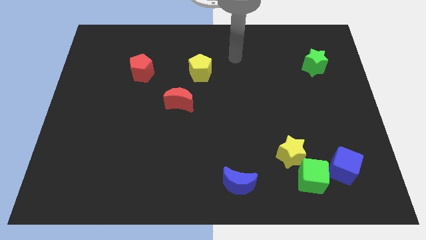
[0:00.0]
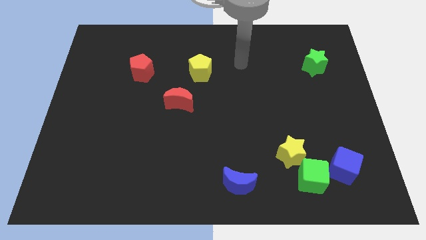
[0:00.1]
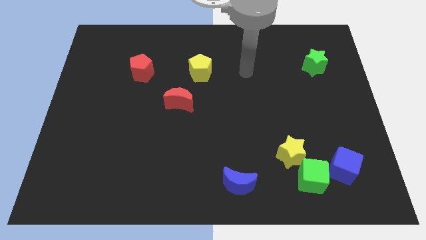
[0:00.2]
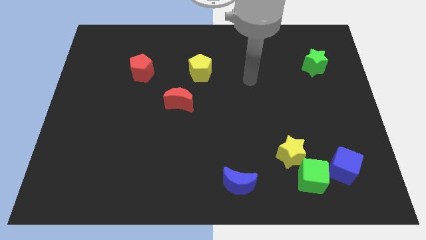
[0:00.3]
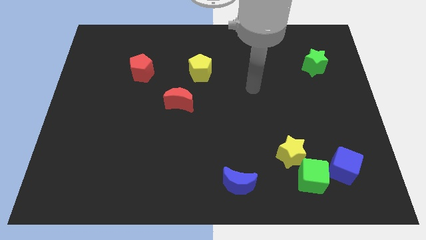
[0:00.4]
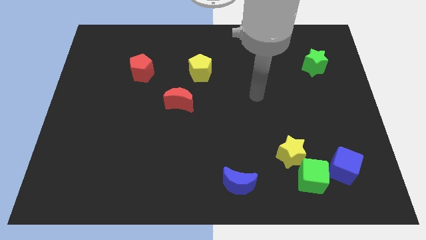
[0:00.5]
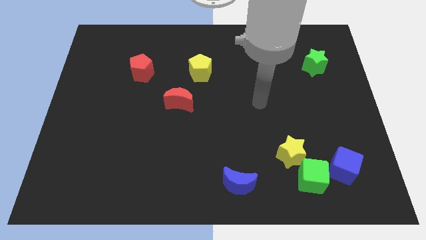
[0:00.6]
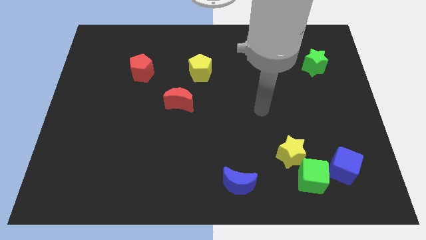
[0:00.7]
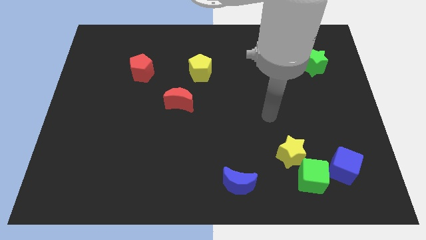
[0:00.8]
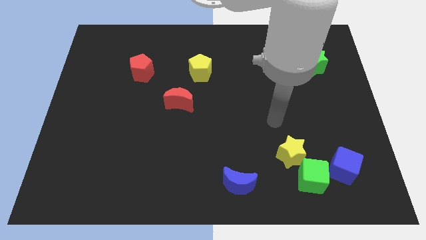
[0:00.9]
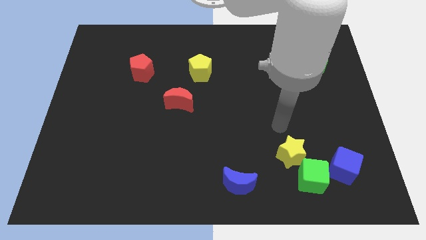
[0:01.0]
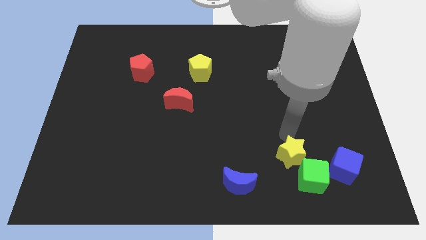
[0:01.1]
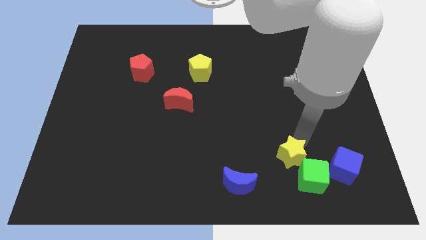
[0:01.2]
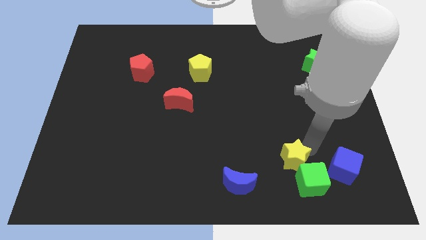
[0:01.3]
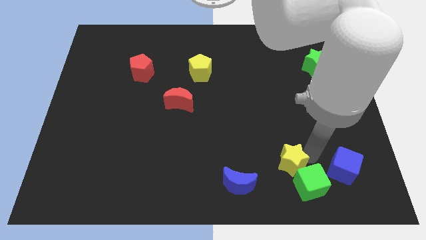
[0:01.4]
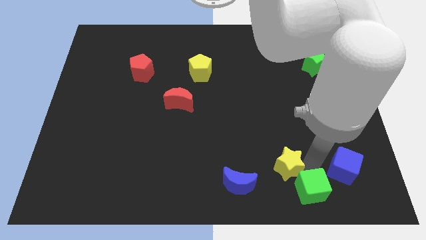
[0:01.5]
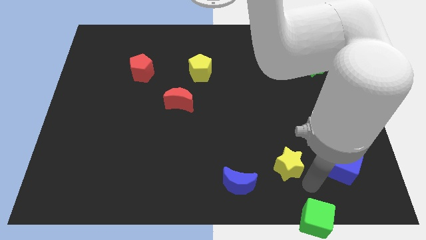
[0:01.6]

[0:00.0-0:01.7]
move the yellow star away from the green cube

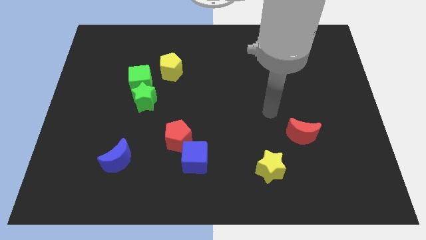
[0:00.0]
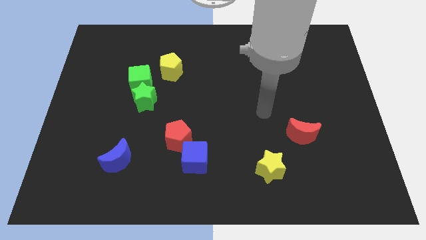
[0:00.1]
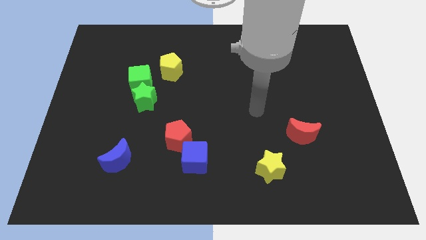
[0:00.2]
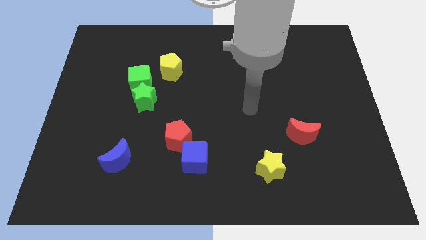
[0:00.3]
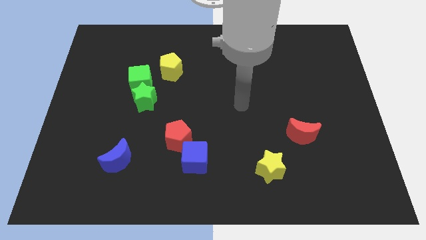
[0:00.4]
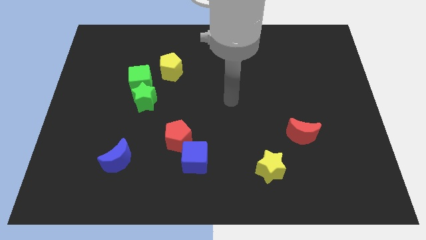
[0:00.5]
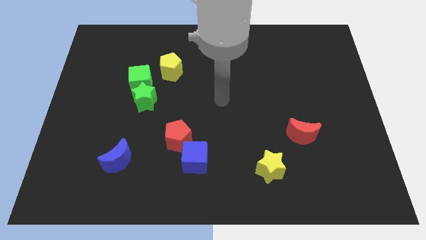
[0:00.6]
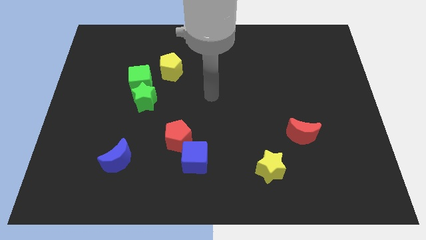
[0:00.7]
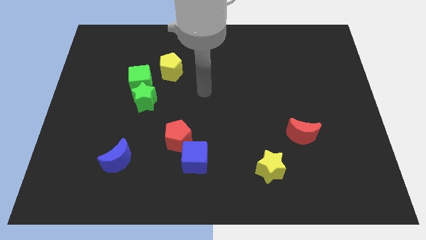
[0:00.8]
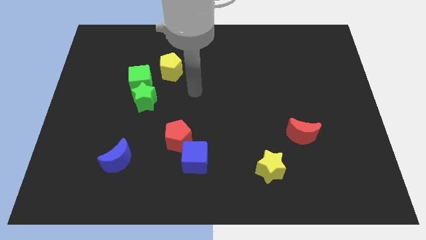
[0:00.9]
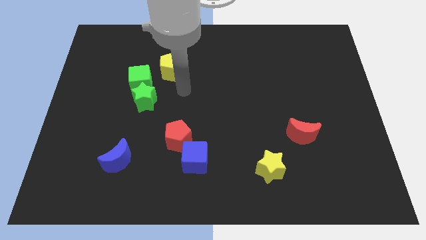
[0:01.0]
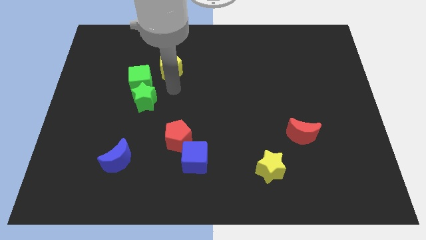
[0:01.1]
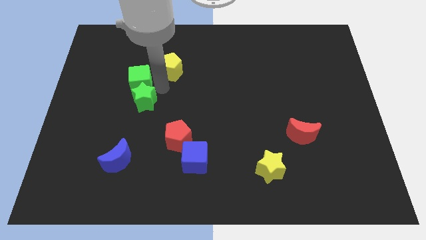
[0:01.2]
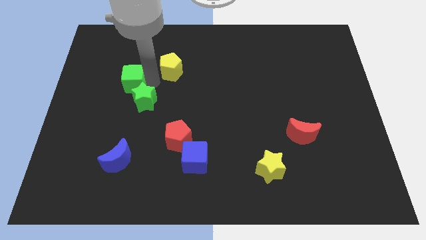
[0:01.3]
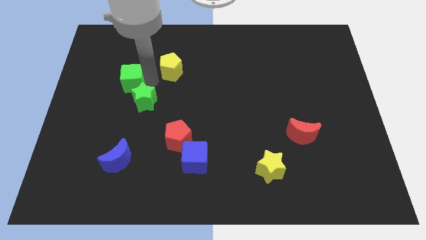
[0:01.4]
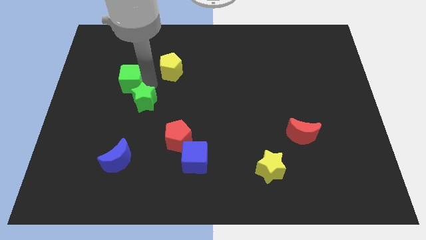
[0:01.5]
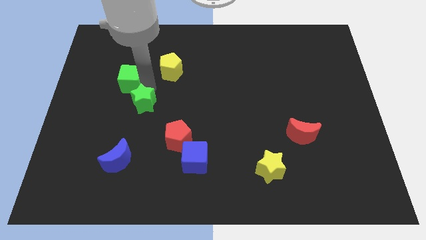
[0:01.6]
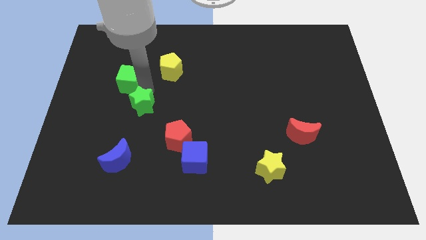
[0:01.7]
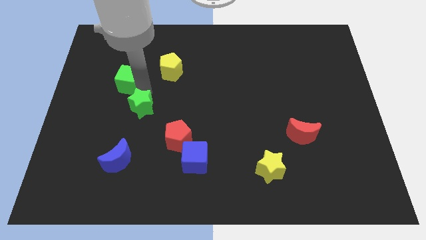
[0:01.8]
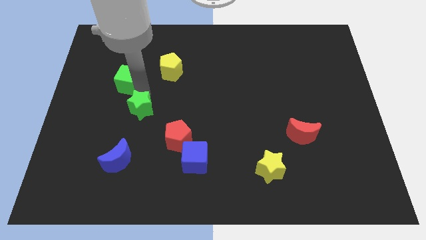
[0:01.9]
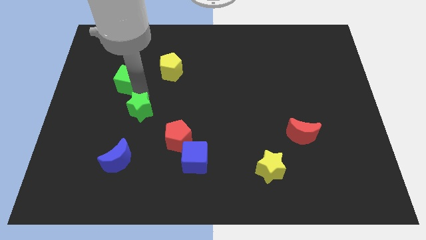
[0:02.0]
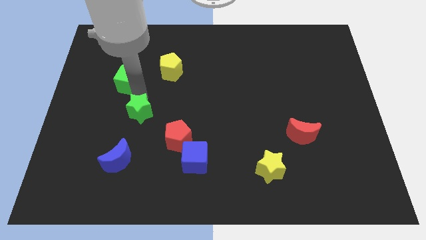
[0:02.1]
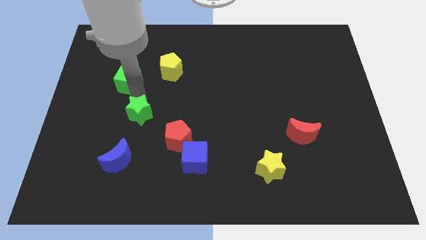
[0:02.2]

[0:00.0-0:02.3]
separate the green star from the green cube

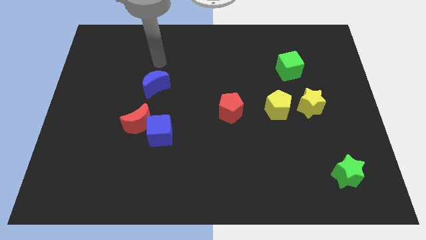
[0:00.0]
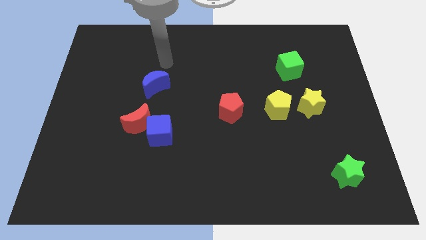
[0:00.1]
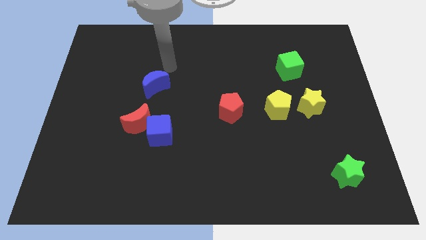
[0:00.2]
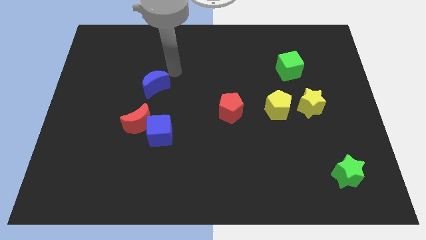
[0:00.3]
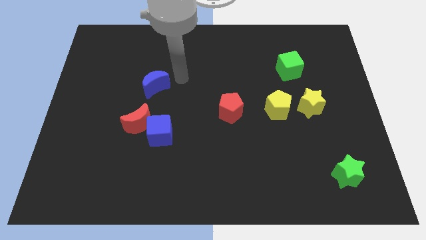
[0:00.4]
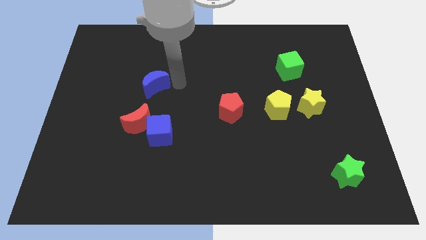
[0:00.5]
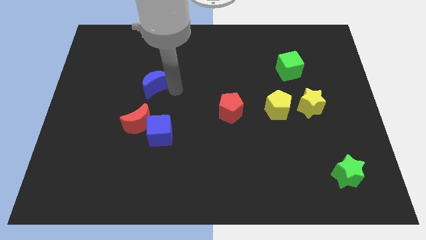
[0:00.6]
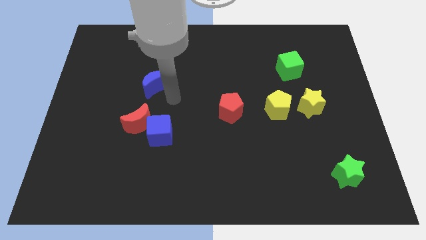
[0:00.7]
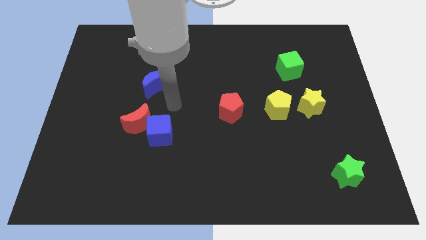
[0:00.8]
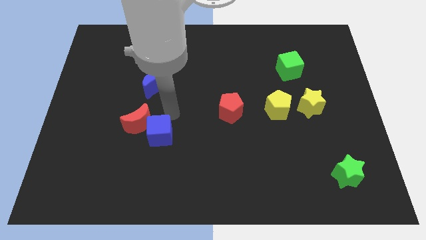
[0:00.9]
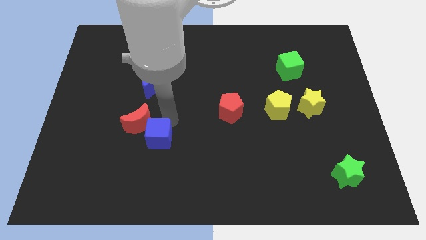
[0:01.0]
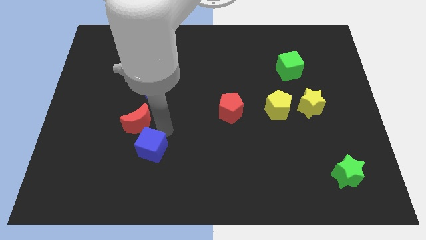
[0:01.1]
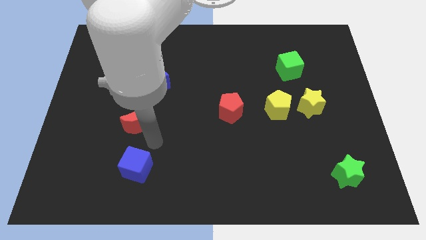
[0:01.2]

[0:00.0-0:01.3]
separate the red moon from the blue cube

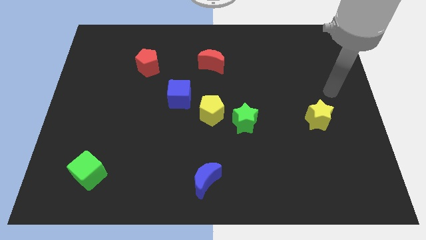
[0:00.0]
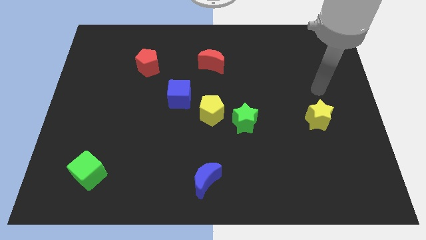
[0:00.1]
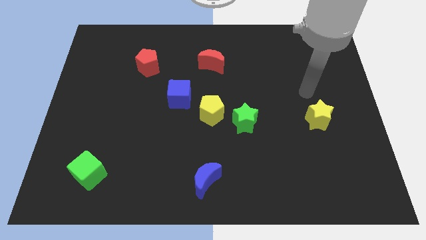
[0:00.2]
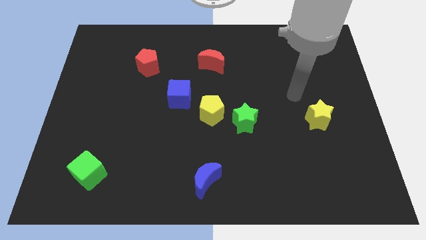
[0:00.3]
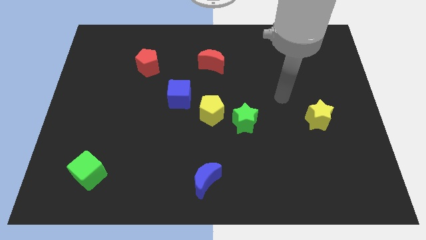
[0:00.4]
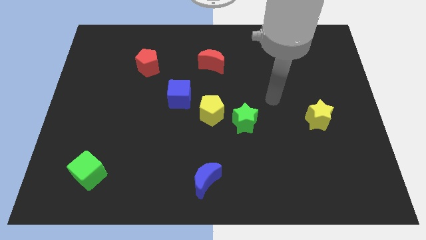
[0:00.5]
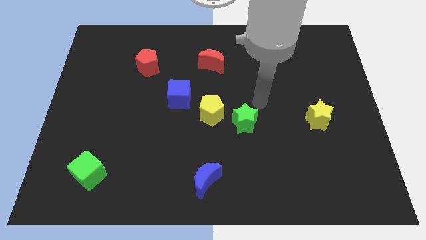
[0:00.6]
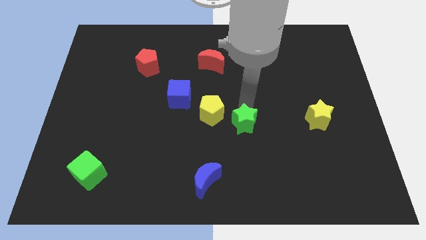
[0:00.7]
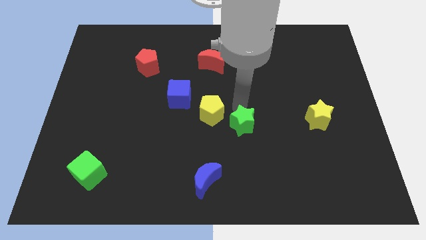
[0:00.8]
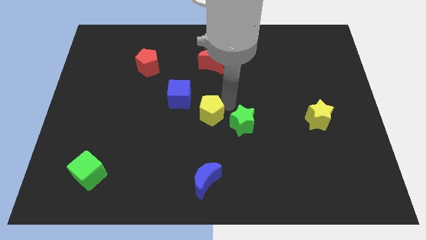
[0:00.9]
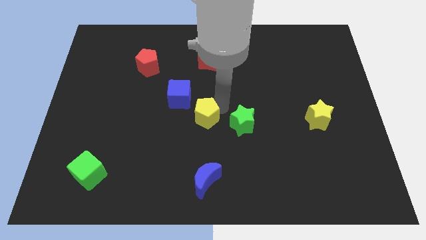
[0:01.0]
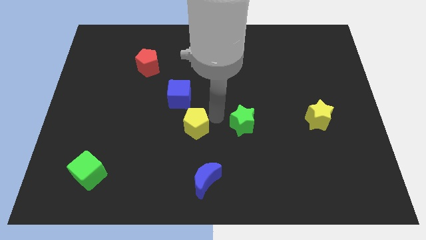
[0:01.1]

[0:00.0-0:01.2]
move the green star away from the yellow pentagon

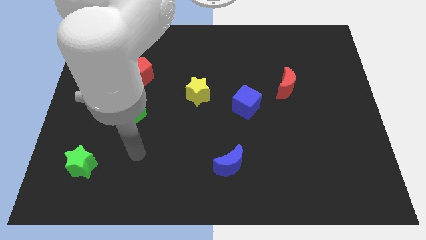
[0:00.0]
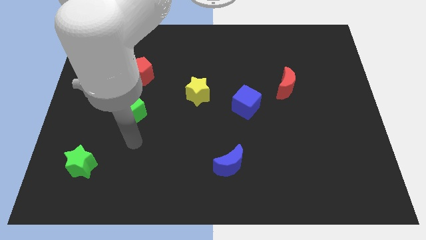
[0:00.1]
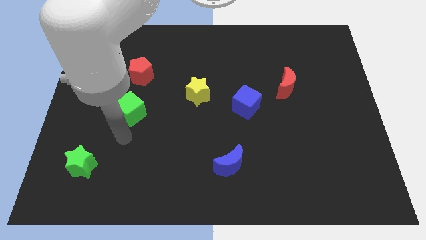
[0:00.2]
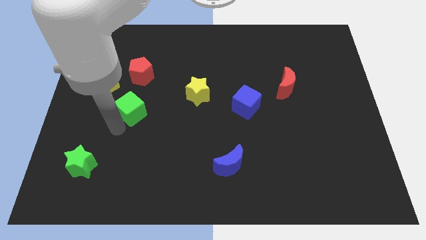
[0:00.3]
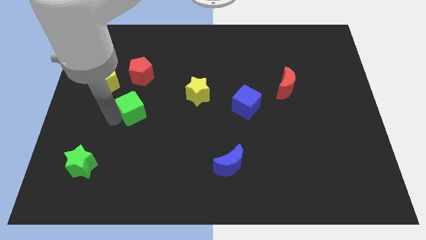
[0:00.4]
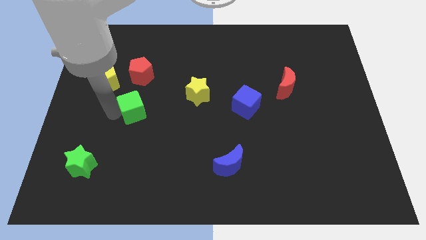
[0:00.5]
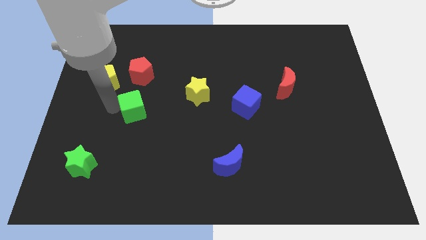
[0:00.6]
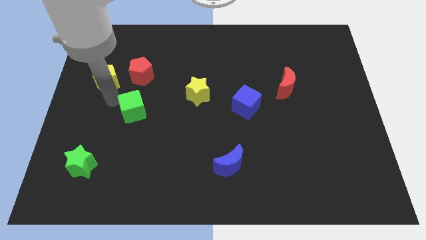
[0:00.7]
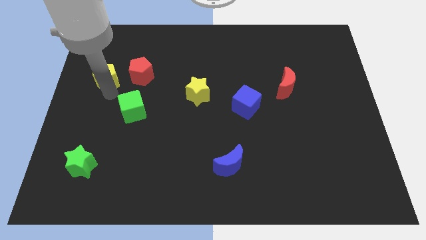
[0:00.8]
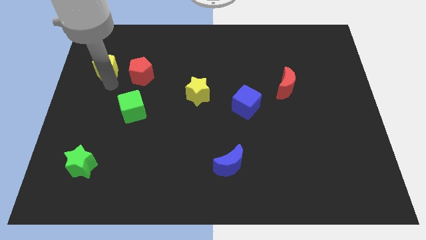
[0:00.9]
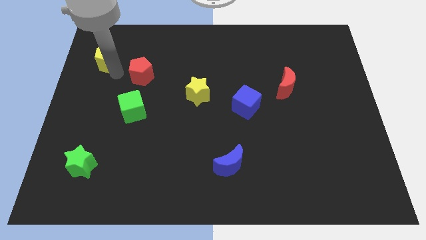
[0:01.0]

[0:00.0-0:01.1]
separate the red pentagon from the yellow pentagon

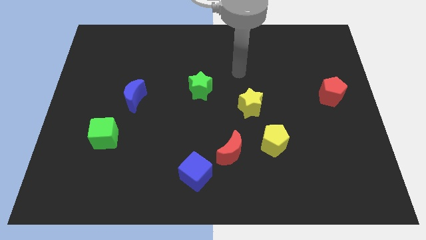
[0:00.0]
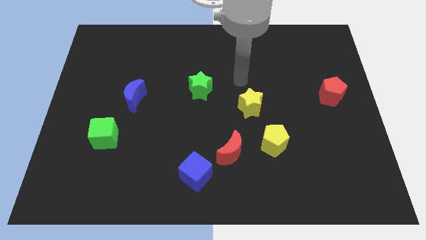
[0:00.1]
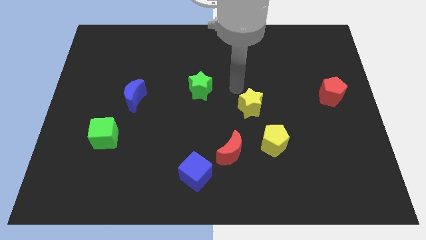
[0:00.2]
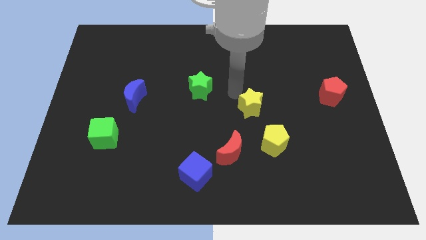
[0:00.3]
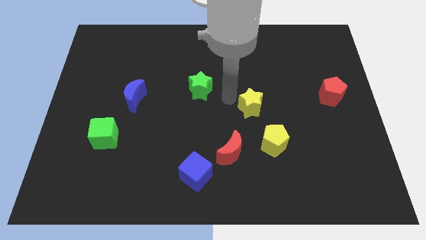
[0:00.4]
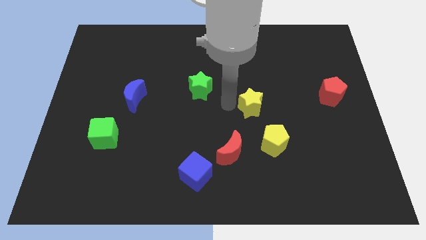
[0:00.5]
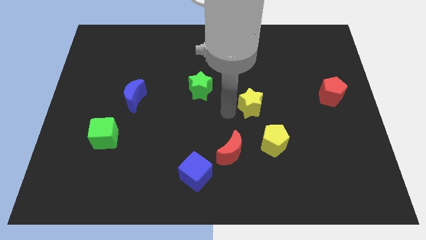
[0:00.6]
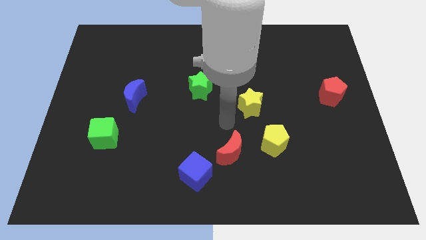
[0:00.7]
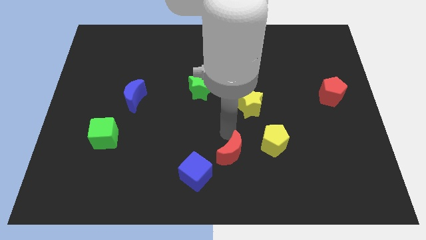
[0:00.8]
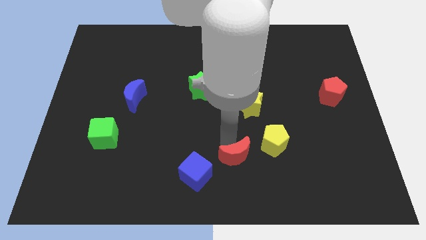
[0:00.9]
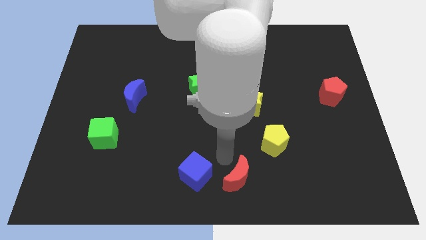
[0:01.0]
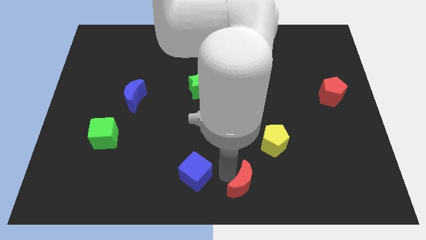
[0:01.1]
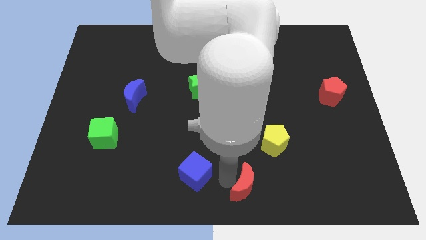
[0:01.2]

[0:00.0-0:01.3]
separate the blue cube from the red moon

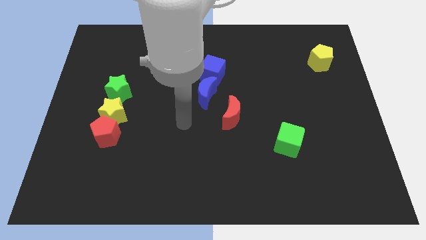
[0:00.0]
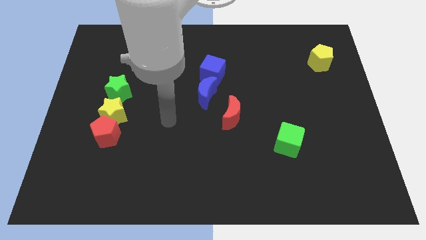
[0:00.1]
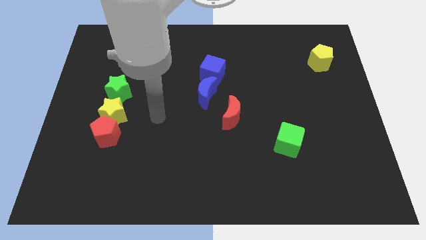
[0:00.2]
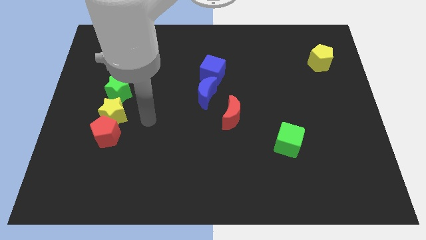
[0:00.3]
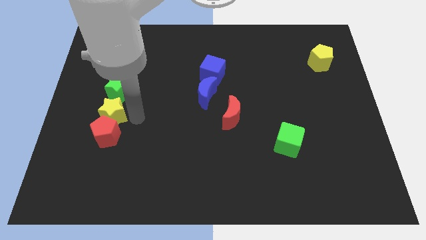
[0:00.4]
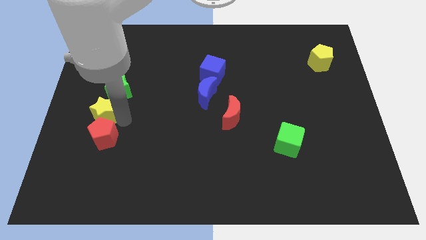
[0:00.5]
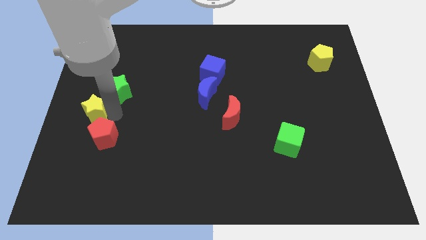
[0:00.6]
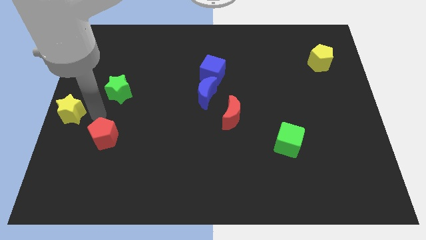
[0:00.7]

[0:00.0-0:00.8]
move the red pentagon away from the yellow star
